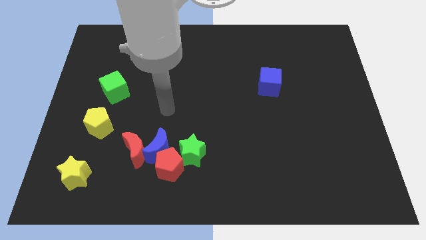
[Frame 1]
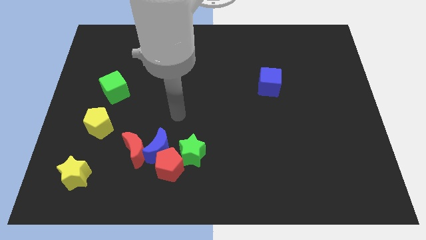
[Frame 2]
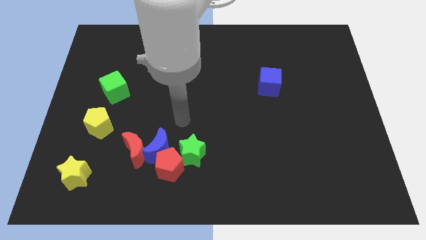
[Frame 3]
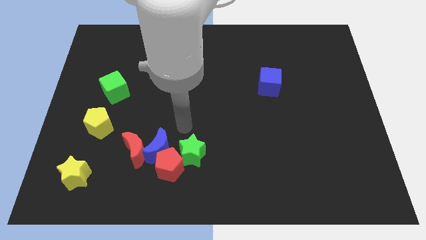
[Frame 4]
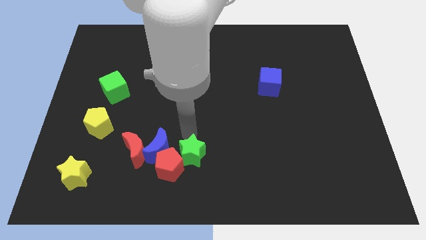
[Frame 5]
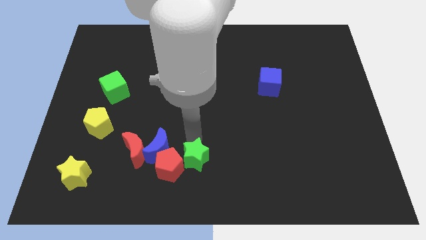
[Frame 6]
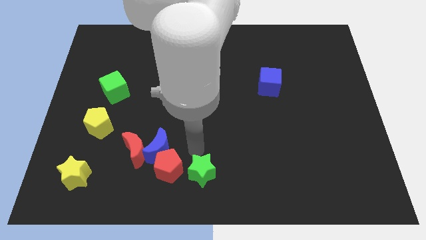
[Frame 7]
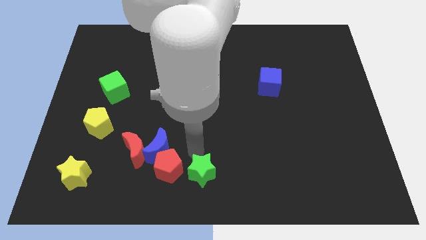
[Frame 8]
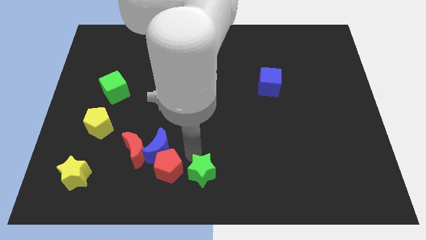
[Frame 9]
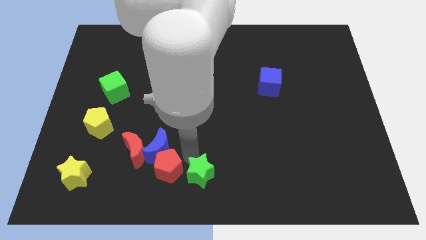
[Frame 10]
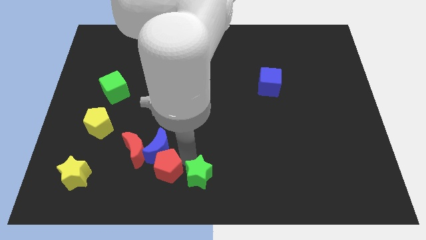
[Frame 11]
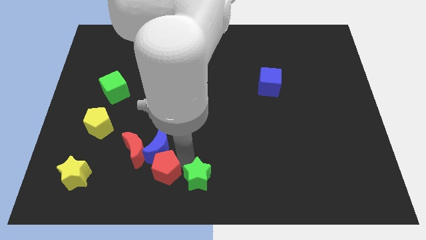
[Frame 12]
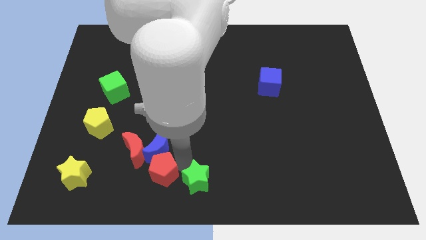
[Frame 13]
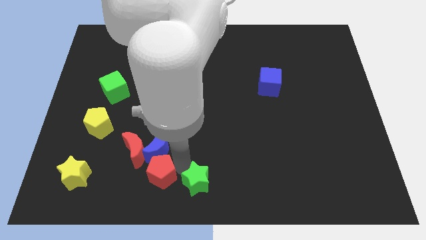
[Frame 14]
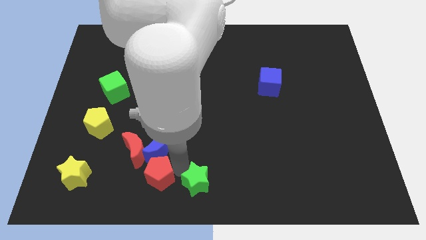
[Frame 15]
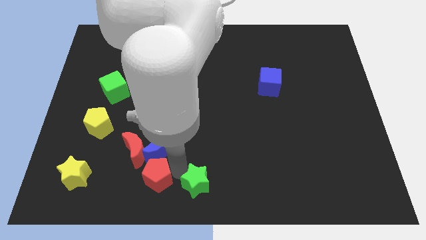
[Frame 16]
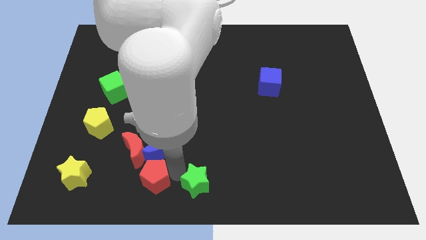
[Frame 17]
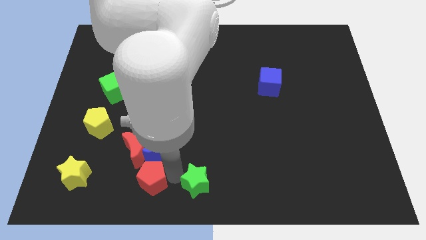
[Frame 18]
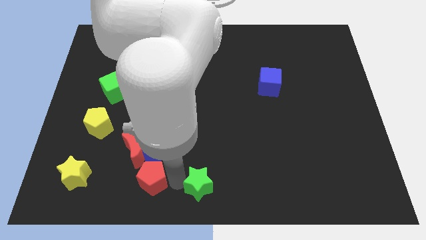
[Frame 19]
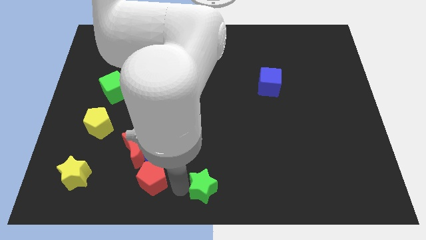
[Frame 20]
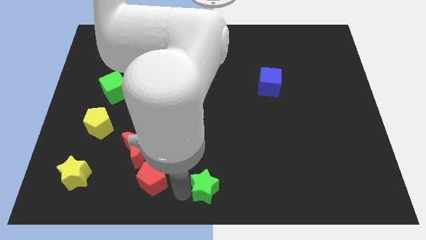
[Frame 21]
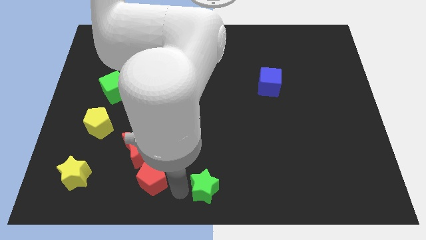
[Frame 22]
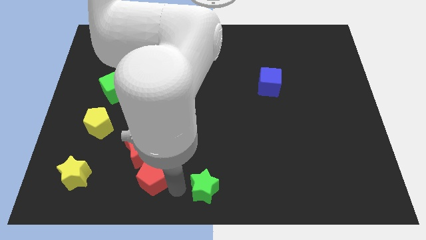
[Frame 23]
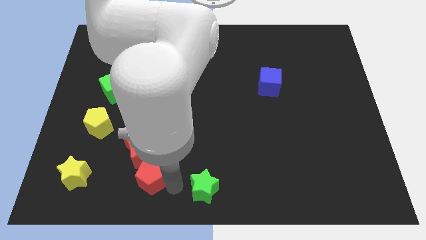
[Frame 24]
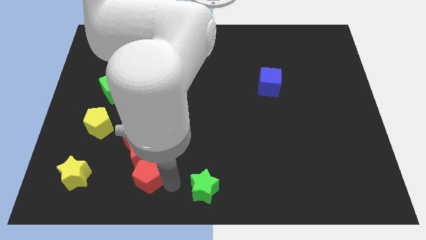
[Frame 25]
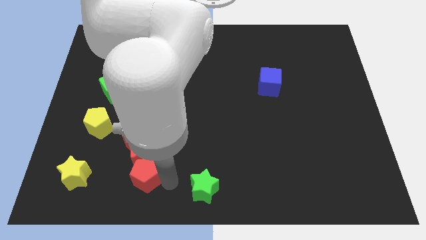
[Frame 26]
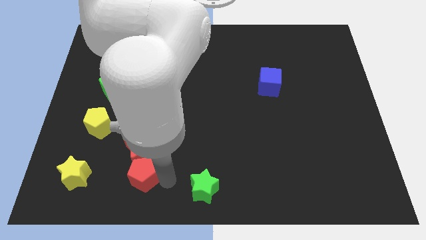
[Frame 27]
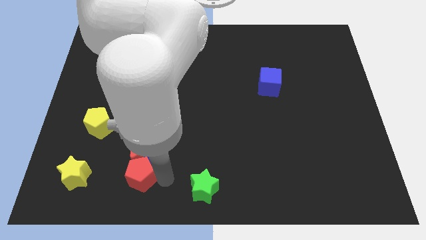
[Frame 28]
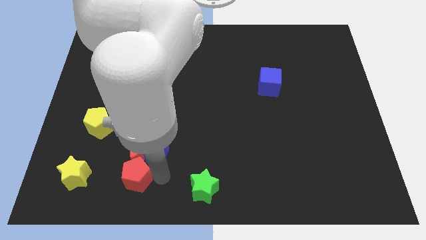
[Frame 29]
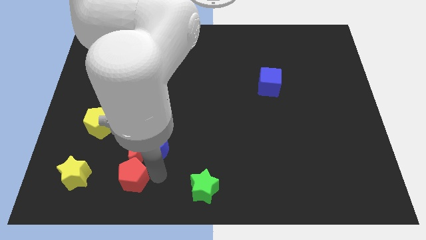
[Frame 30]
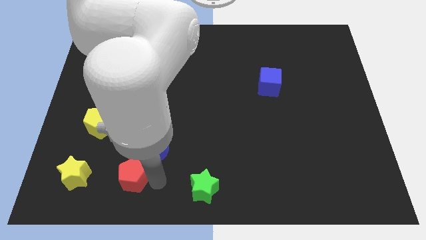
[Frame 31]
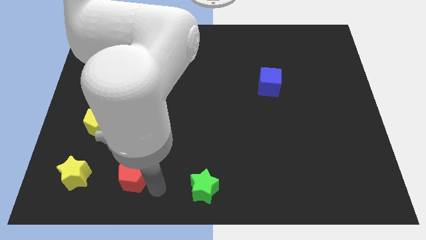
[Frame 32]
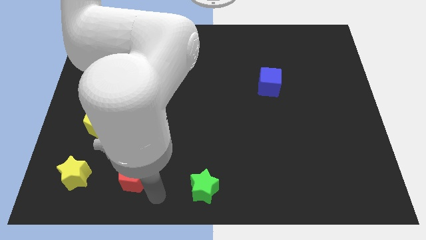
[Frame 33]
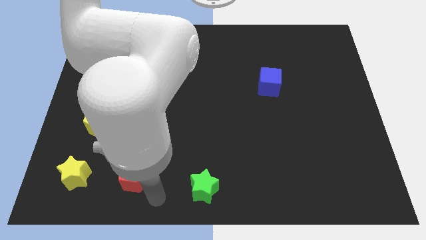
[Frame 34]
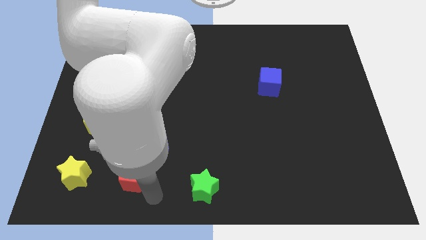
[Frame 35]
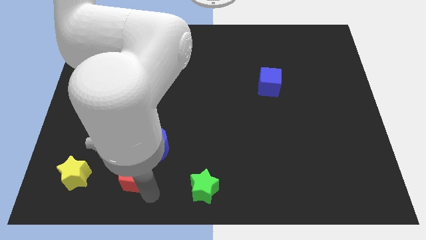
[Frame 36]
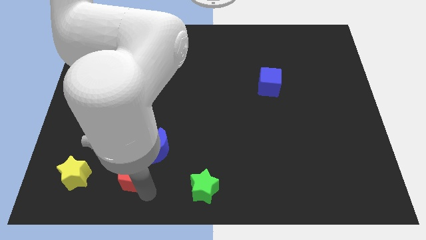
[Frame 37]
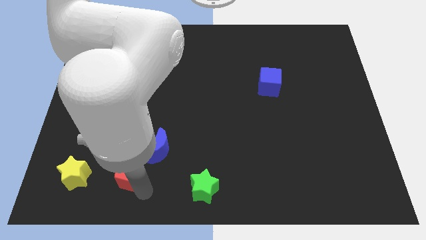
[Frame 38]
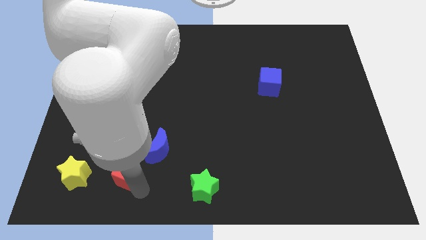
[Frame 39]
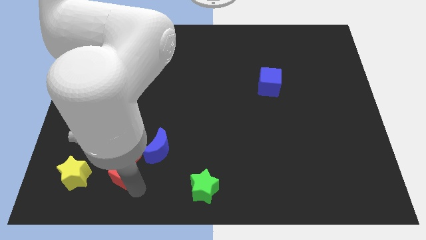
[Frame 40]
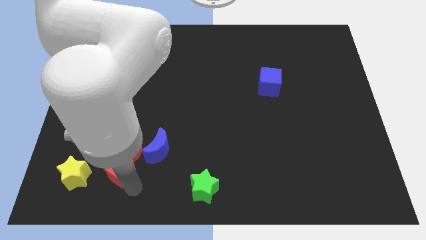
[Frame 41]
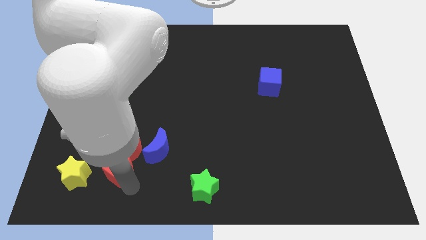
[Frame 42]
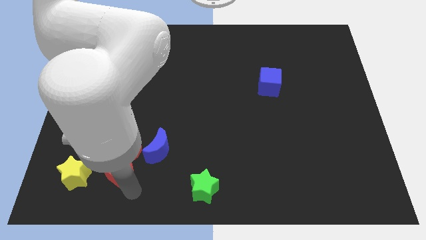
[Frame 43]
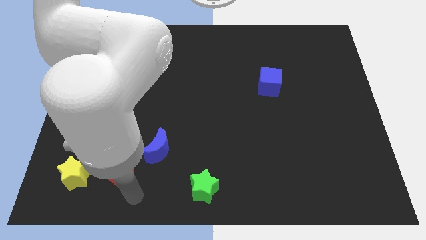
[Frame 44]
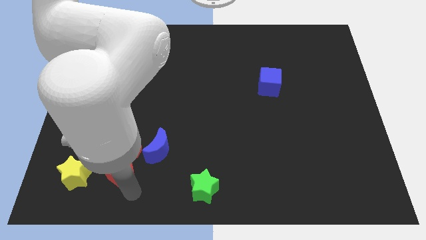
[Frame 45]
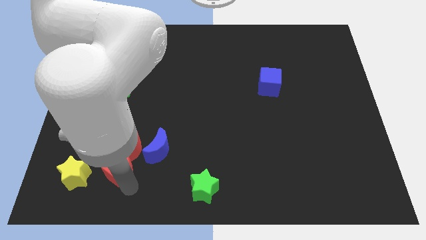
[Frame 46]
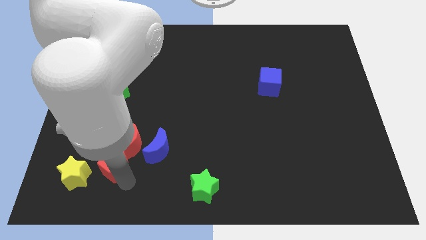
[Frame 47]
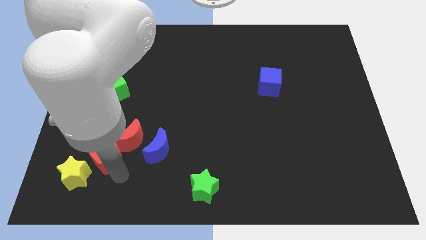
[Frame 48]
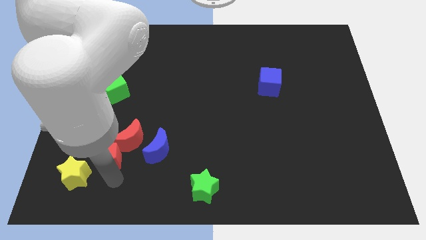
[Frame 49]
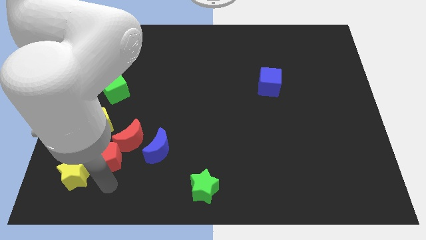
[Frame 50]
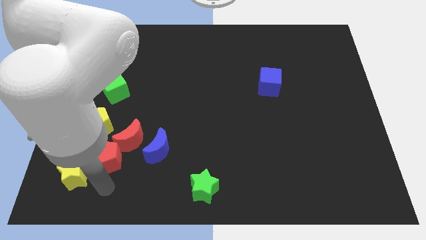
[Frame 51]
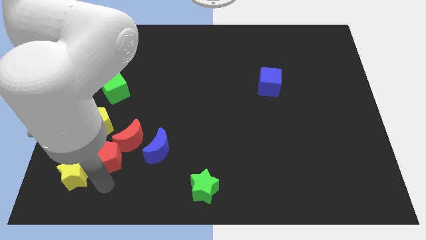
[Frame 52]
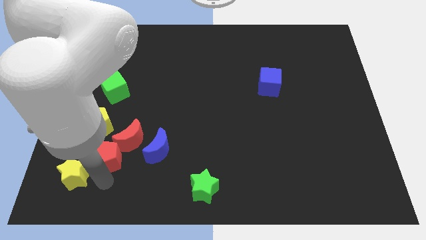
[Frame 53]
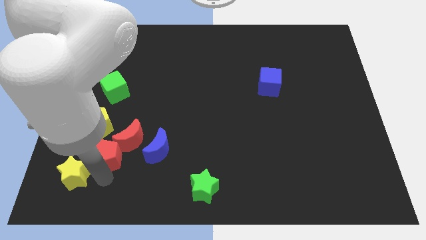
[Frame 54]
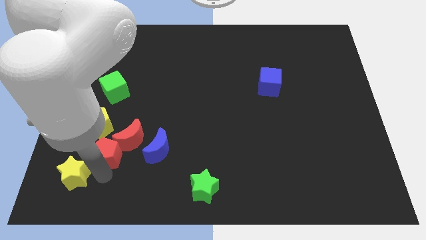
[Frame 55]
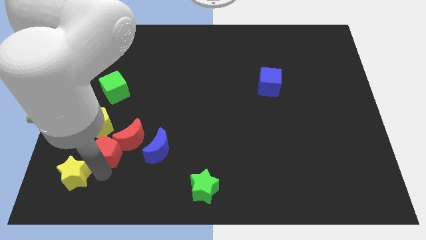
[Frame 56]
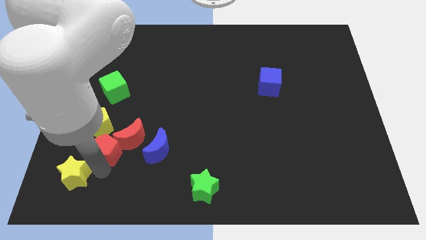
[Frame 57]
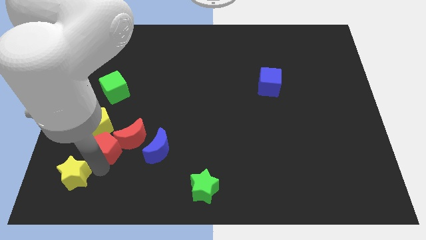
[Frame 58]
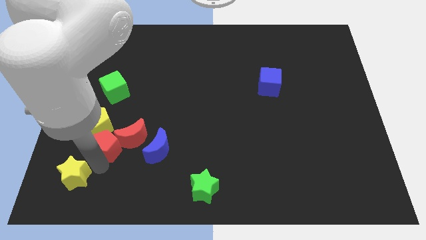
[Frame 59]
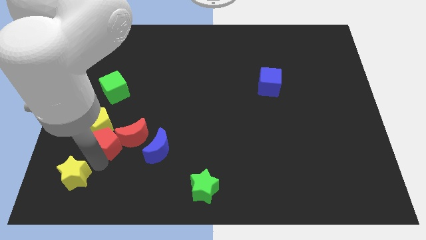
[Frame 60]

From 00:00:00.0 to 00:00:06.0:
move the red pentagon close to the yellow pentagon

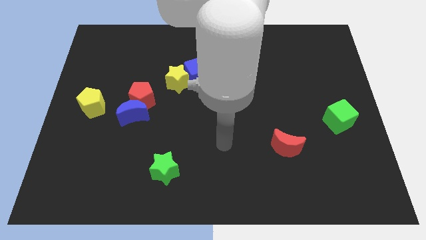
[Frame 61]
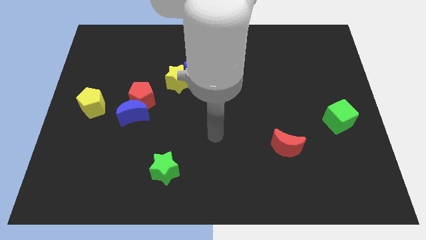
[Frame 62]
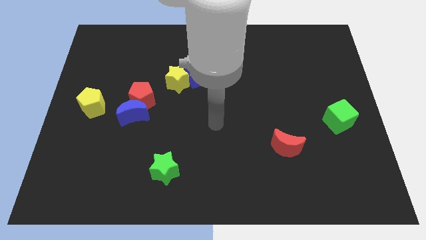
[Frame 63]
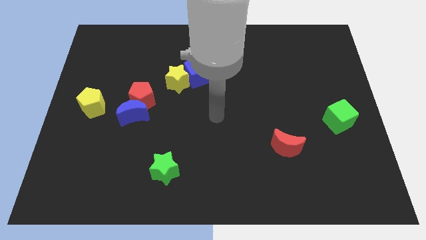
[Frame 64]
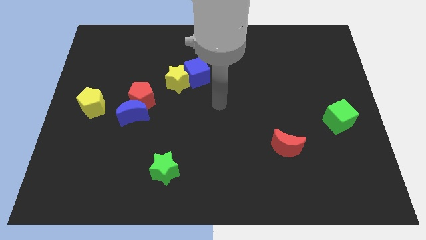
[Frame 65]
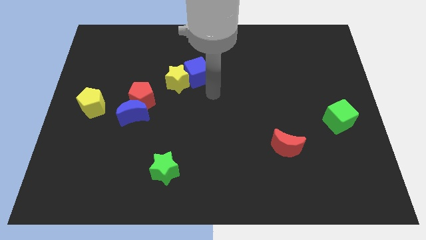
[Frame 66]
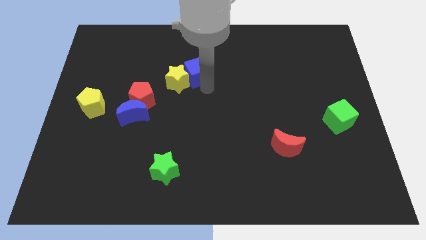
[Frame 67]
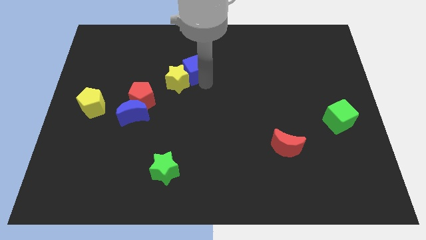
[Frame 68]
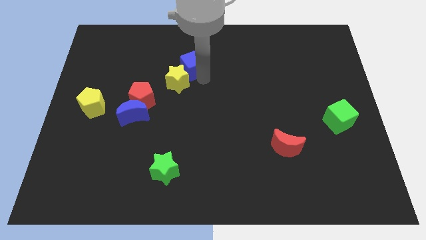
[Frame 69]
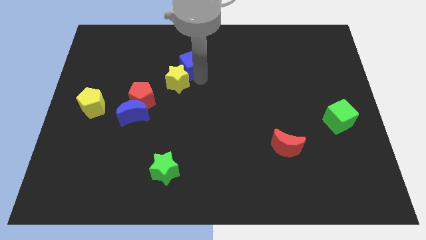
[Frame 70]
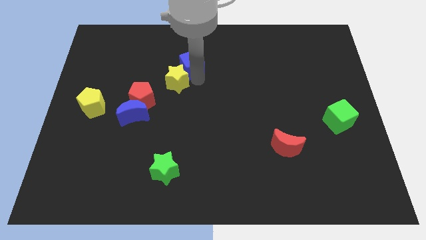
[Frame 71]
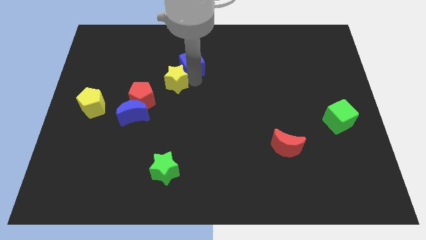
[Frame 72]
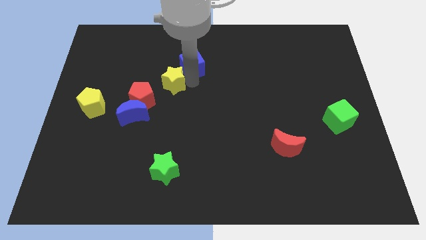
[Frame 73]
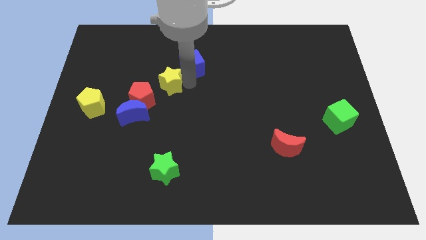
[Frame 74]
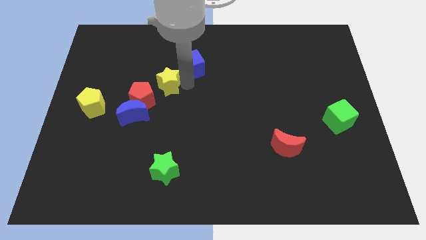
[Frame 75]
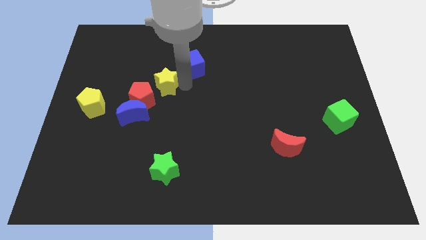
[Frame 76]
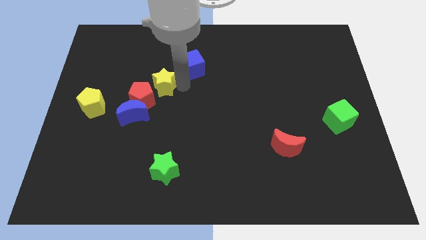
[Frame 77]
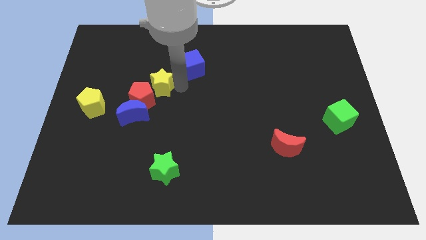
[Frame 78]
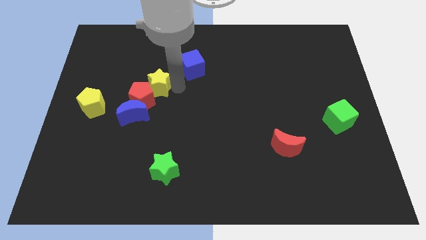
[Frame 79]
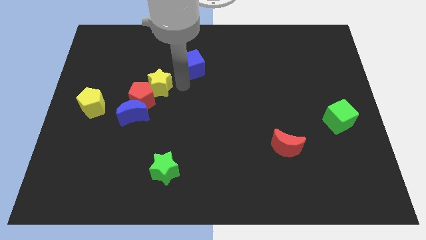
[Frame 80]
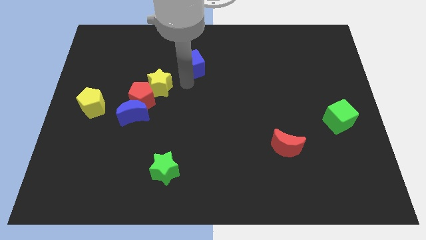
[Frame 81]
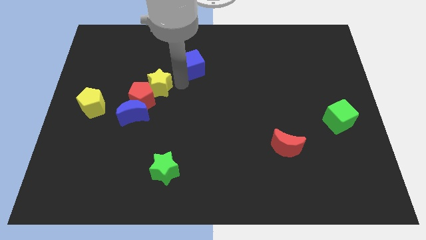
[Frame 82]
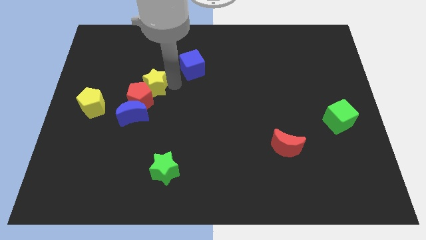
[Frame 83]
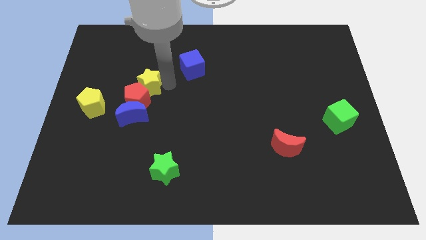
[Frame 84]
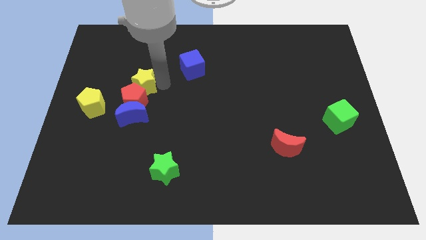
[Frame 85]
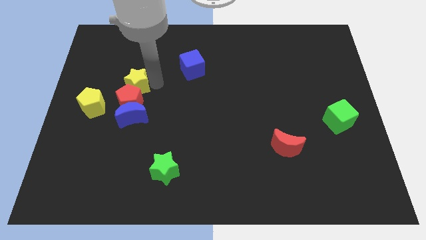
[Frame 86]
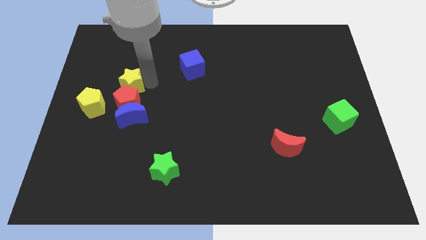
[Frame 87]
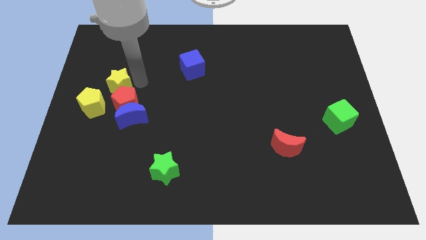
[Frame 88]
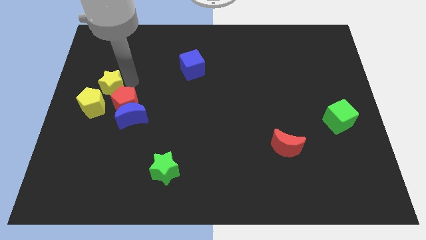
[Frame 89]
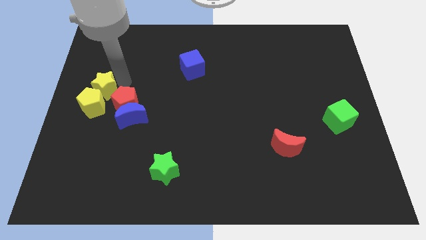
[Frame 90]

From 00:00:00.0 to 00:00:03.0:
slide the yellow star close to the yellow pentagon
